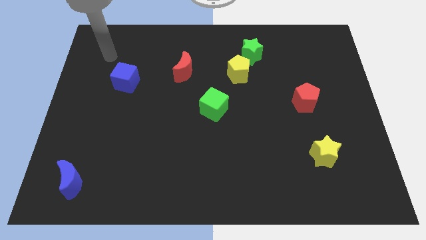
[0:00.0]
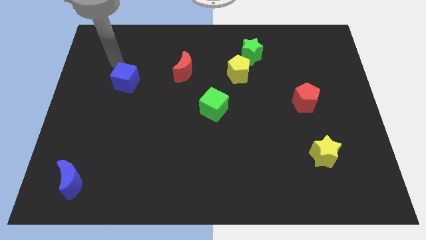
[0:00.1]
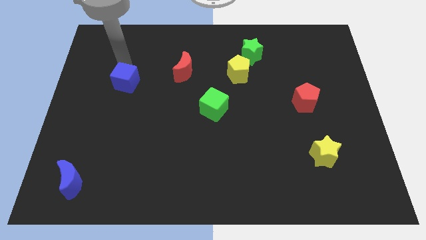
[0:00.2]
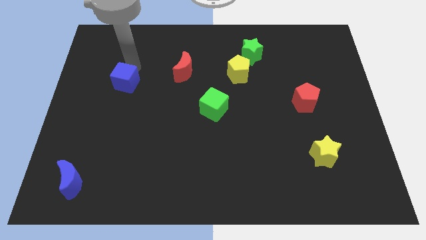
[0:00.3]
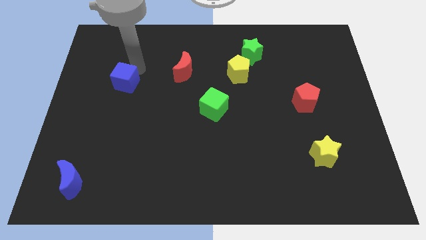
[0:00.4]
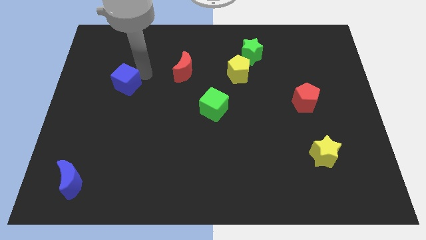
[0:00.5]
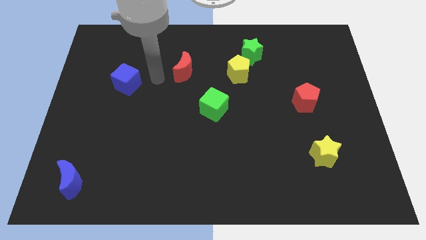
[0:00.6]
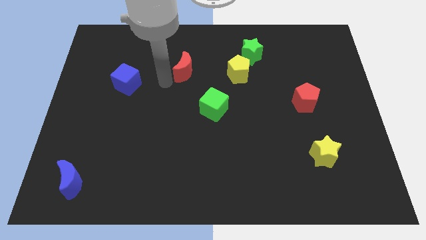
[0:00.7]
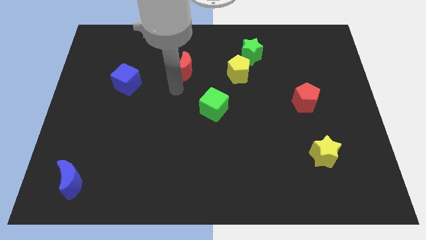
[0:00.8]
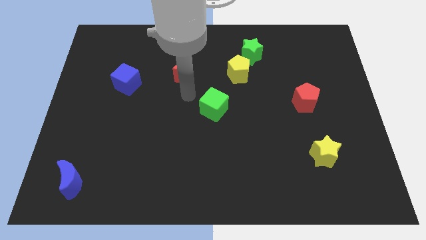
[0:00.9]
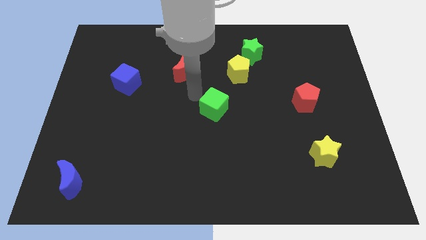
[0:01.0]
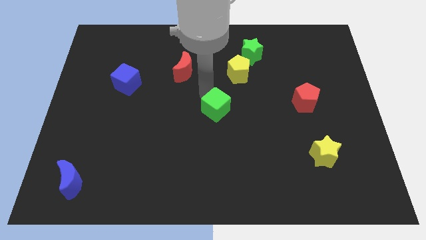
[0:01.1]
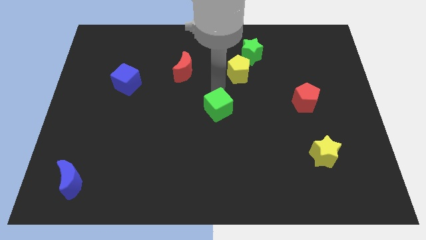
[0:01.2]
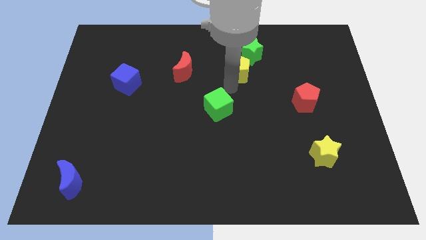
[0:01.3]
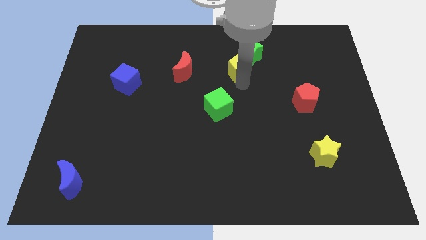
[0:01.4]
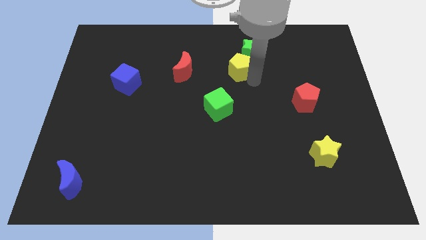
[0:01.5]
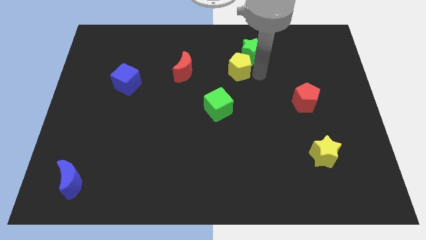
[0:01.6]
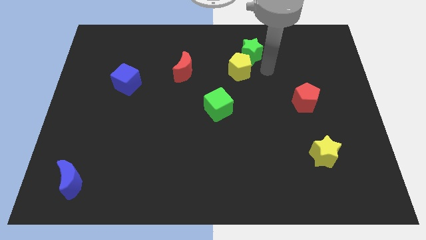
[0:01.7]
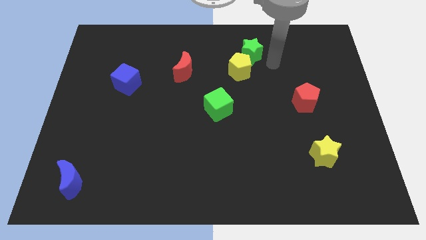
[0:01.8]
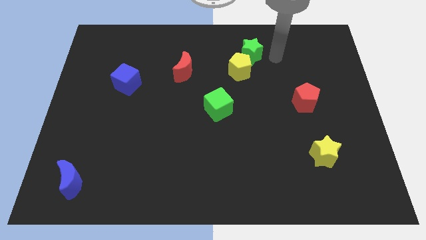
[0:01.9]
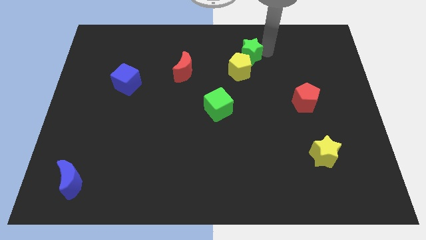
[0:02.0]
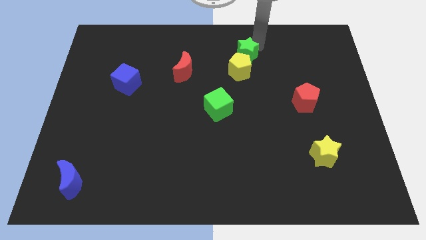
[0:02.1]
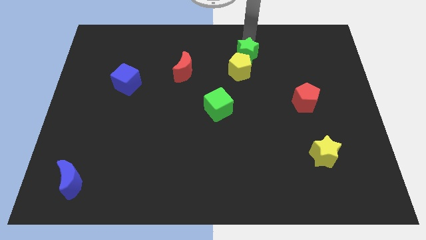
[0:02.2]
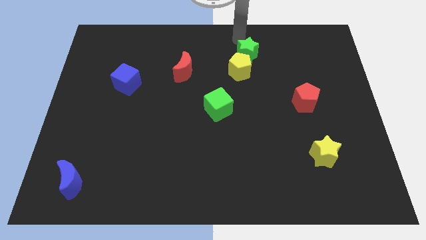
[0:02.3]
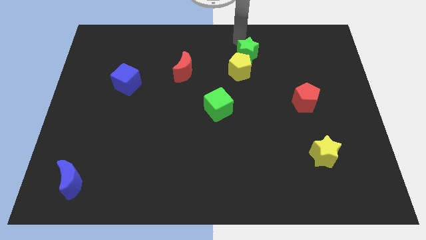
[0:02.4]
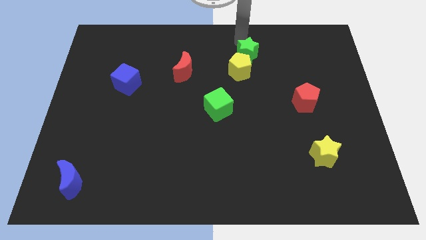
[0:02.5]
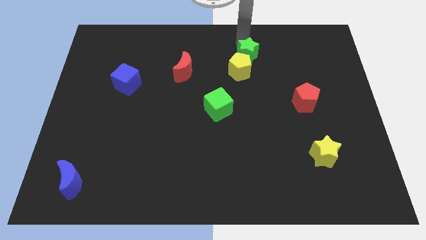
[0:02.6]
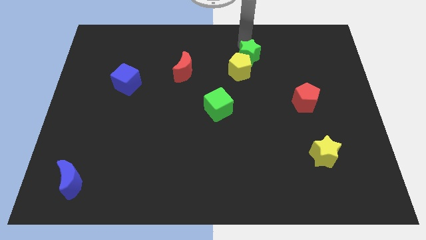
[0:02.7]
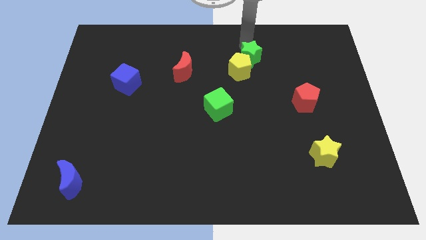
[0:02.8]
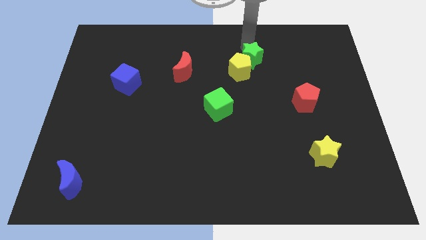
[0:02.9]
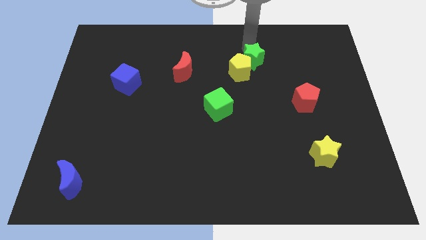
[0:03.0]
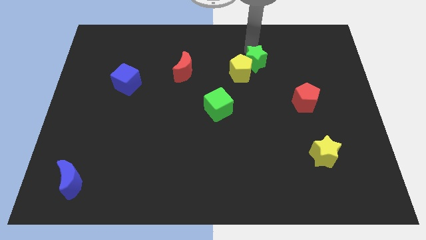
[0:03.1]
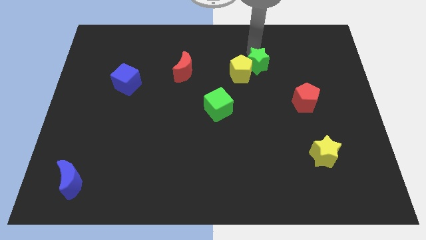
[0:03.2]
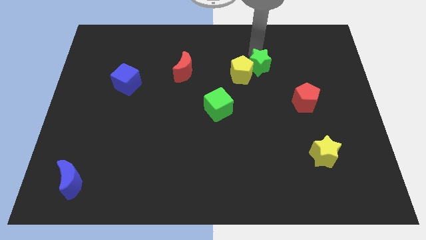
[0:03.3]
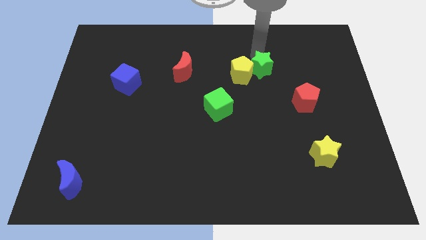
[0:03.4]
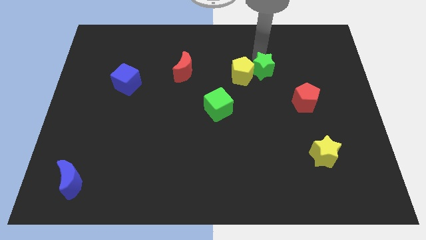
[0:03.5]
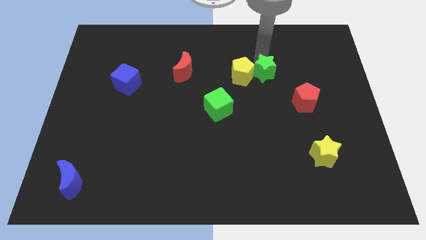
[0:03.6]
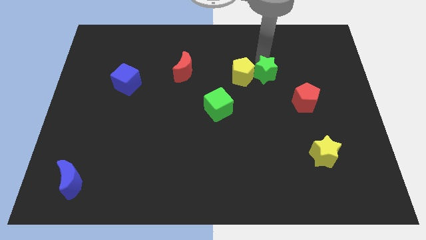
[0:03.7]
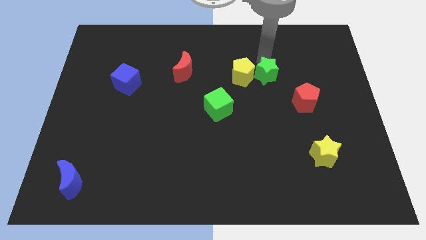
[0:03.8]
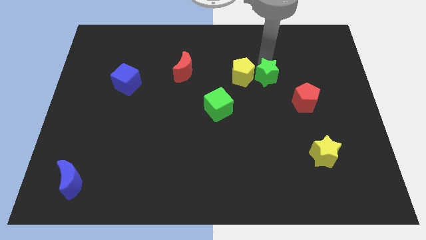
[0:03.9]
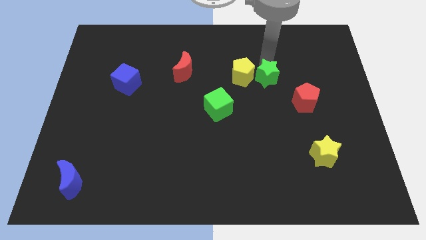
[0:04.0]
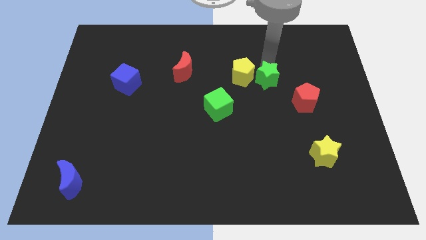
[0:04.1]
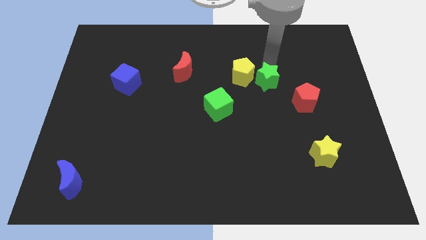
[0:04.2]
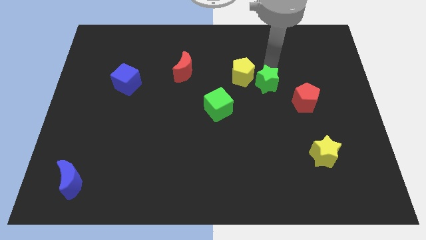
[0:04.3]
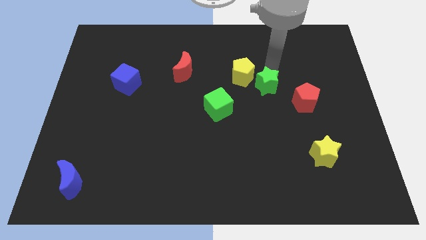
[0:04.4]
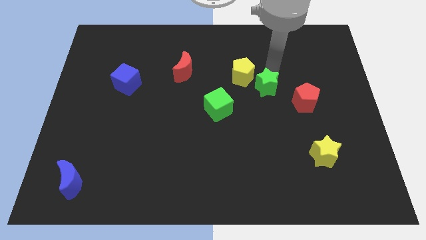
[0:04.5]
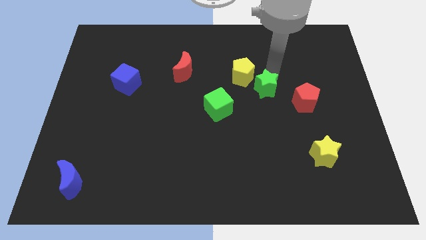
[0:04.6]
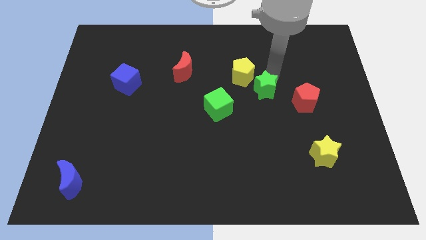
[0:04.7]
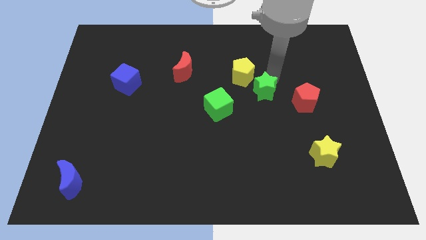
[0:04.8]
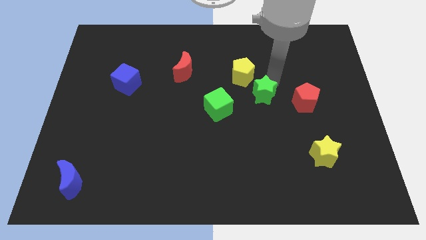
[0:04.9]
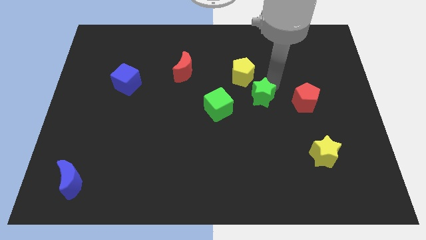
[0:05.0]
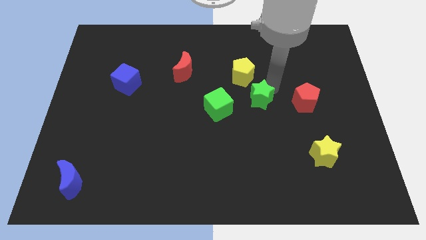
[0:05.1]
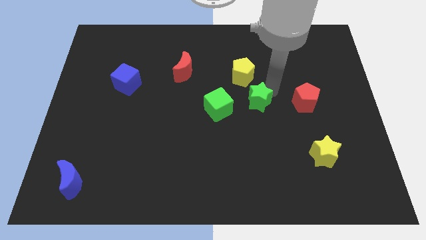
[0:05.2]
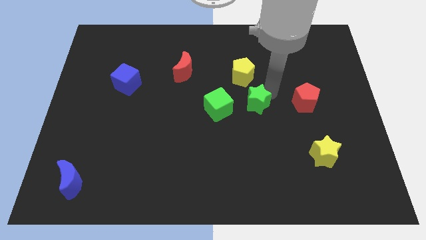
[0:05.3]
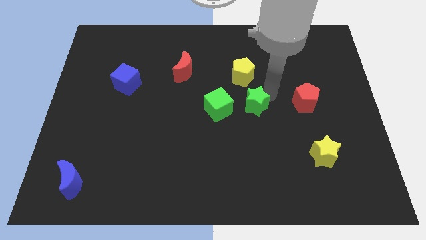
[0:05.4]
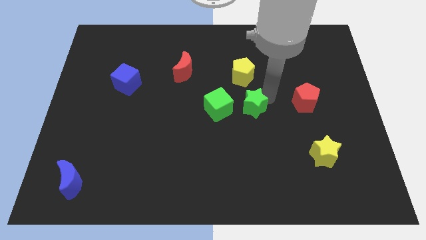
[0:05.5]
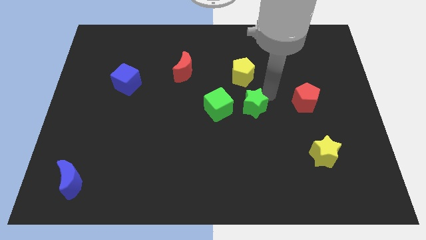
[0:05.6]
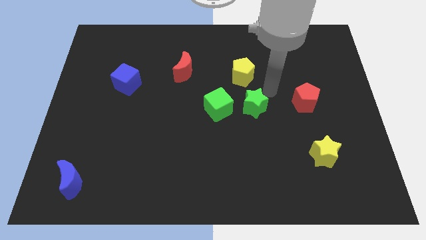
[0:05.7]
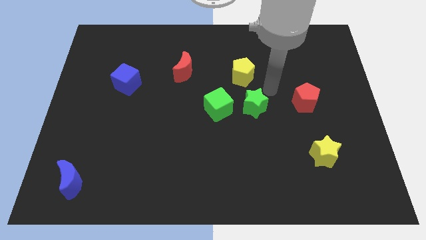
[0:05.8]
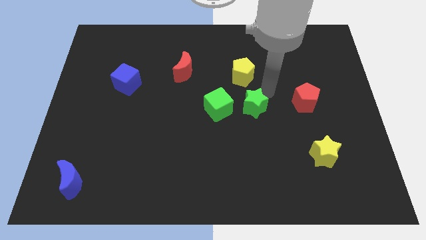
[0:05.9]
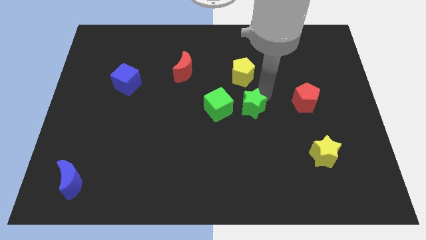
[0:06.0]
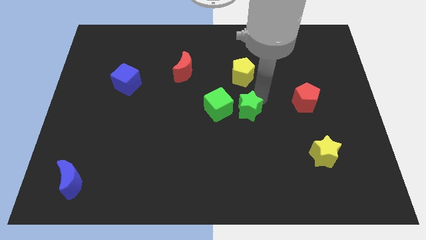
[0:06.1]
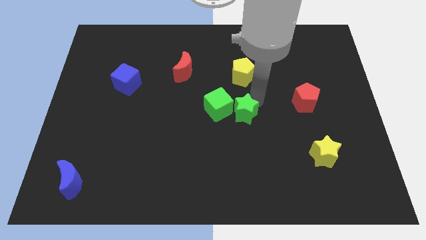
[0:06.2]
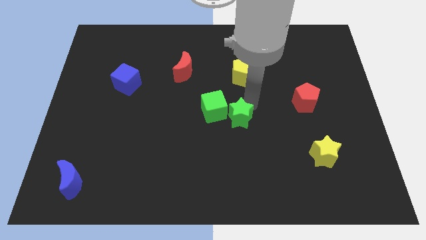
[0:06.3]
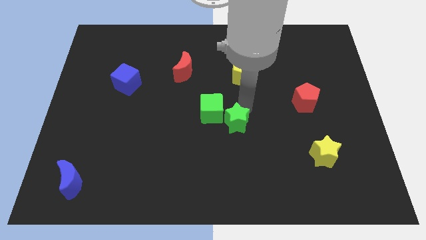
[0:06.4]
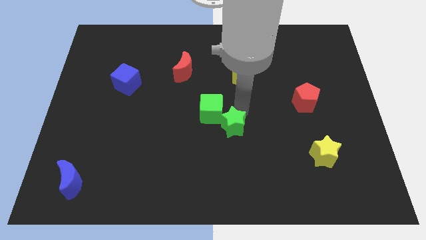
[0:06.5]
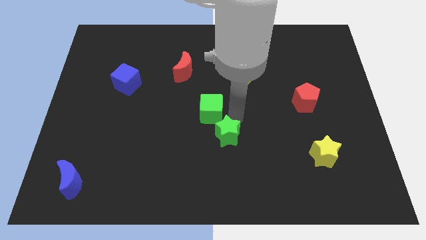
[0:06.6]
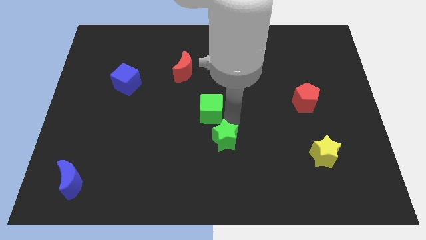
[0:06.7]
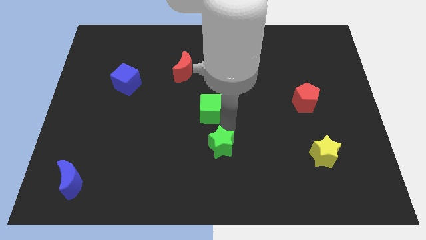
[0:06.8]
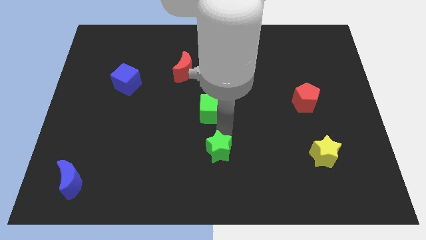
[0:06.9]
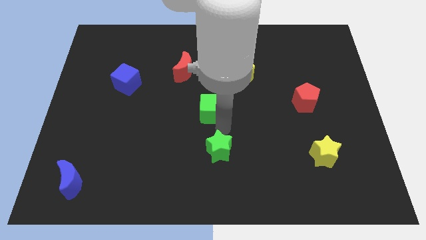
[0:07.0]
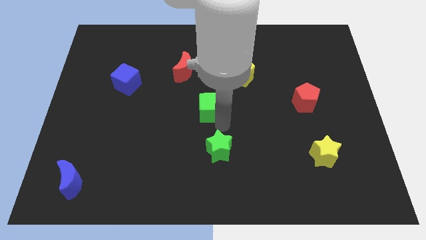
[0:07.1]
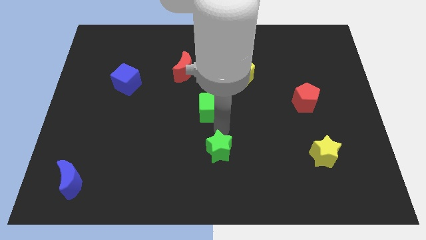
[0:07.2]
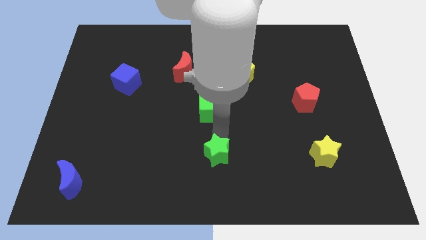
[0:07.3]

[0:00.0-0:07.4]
push the green star to the bottom side
